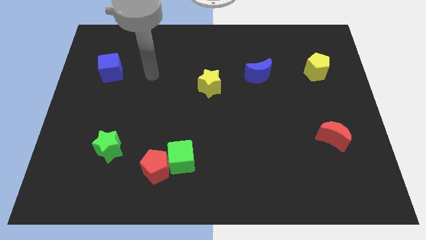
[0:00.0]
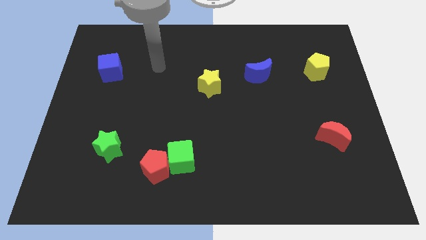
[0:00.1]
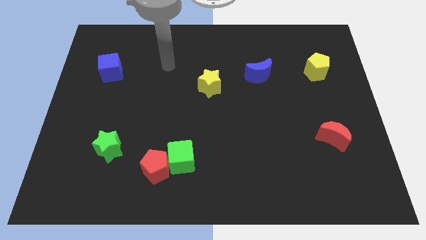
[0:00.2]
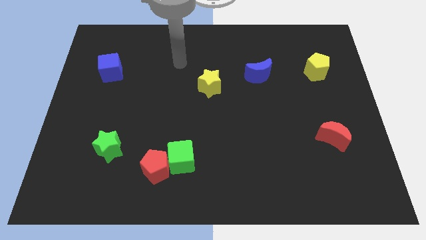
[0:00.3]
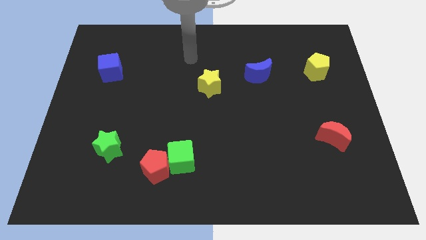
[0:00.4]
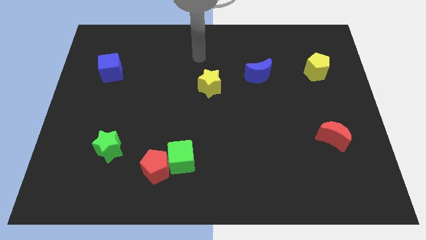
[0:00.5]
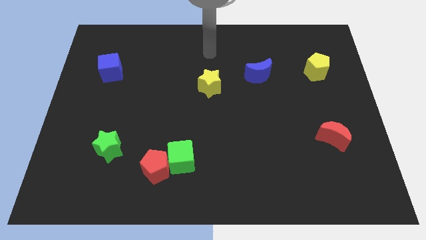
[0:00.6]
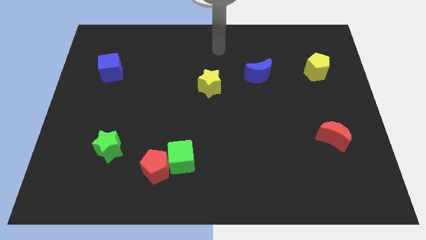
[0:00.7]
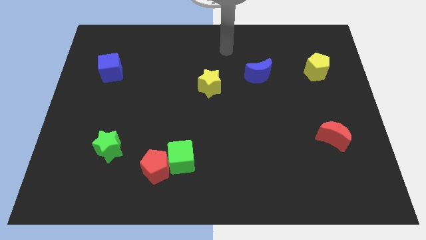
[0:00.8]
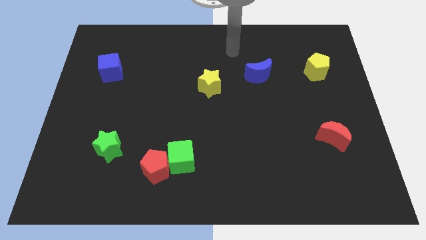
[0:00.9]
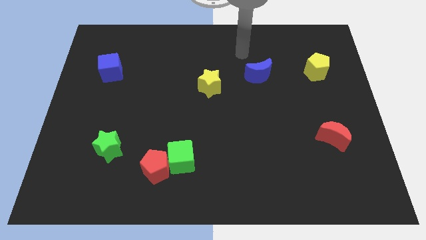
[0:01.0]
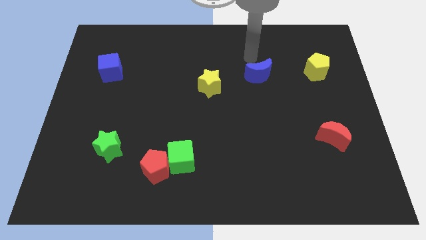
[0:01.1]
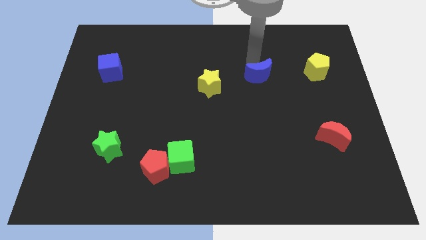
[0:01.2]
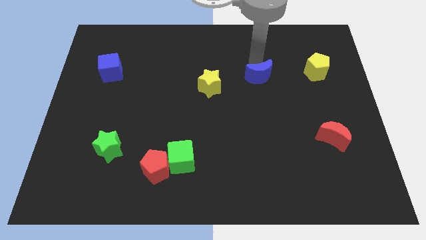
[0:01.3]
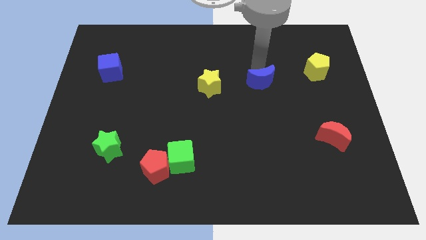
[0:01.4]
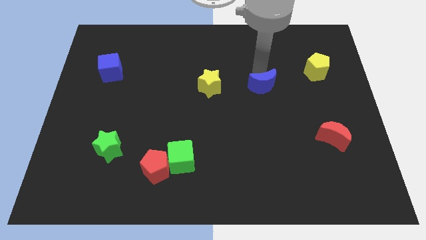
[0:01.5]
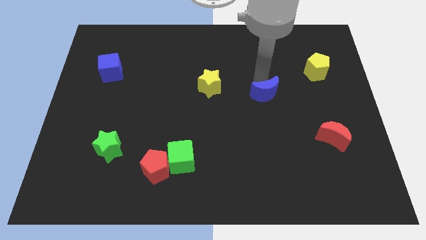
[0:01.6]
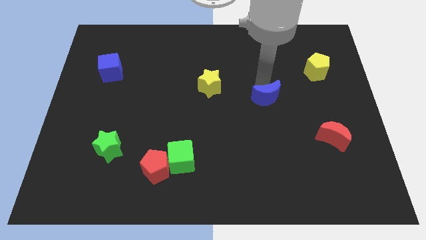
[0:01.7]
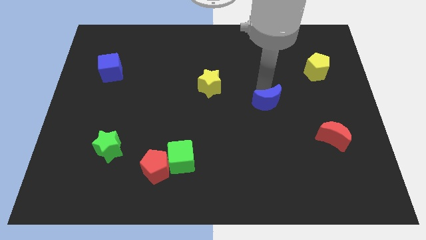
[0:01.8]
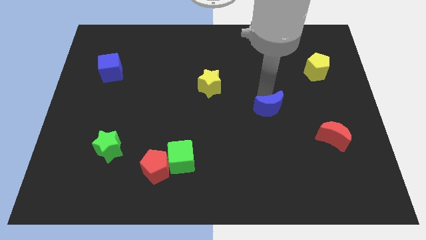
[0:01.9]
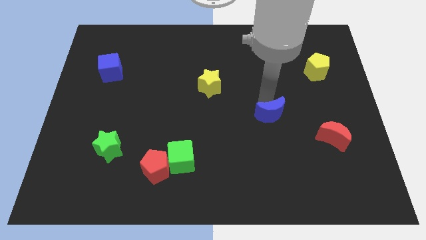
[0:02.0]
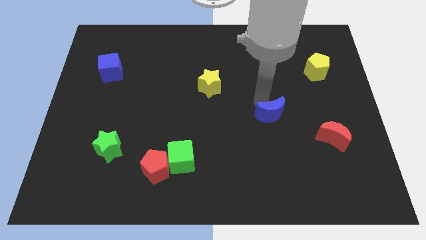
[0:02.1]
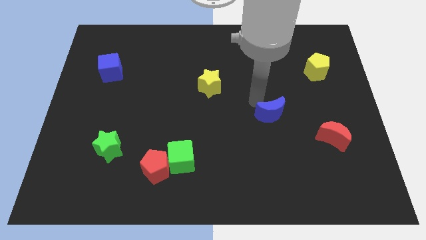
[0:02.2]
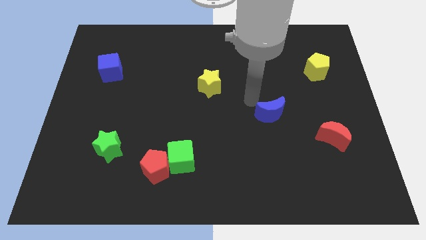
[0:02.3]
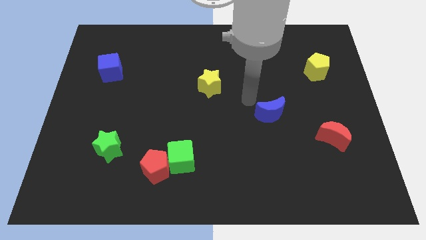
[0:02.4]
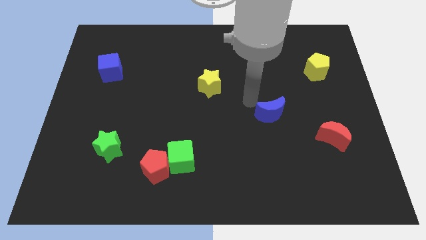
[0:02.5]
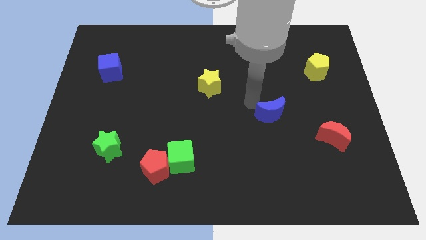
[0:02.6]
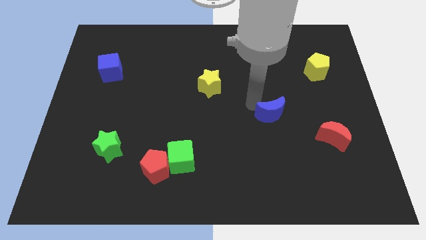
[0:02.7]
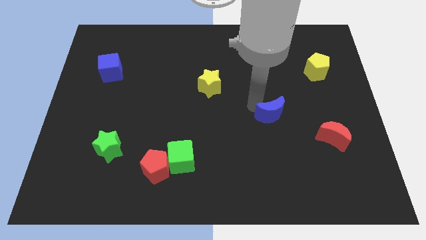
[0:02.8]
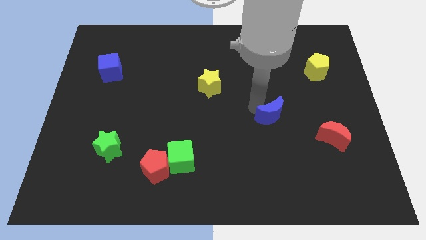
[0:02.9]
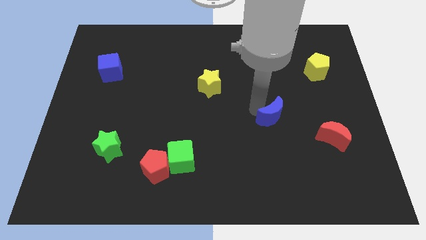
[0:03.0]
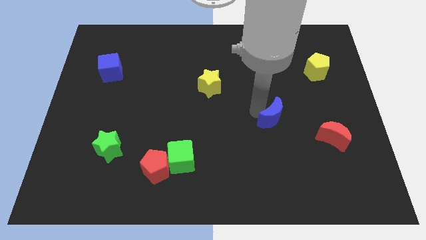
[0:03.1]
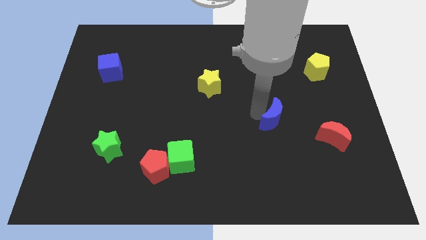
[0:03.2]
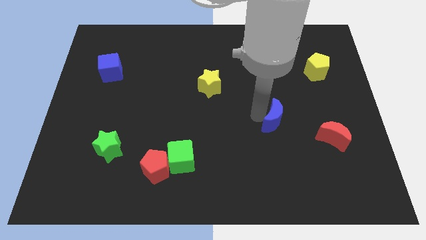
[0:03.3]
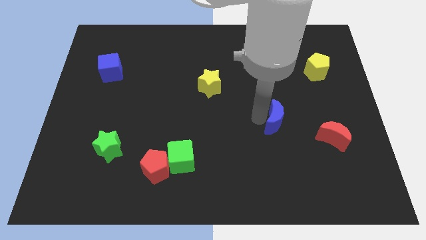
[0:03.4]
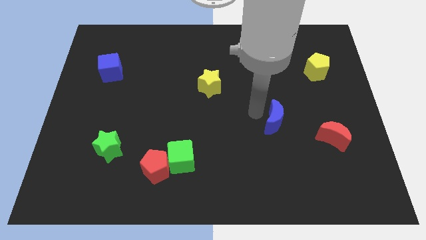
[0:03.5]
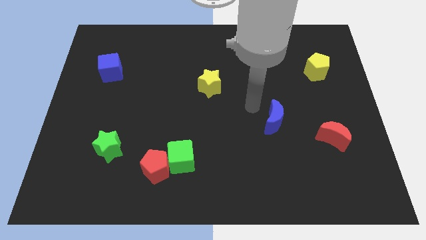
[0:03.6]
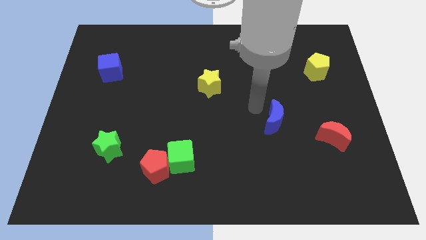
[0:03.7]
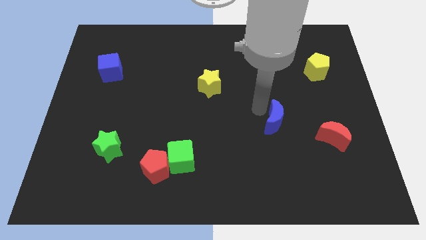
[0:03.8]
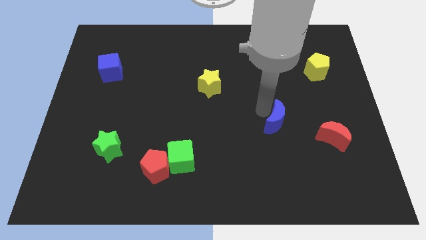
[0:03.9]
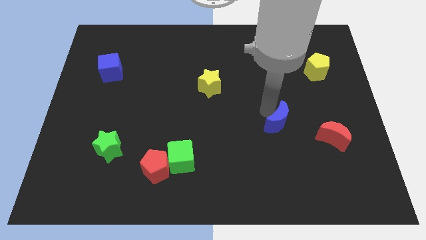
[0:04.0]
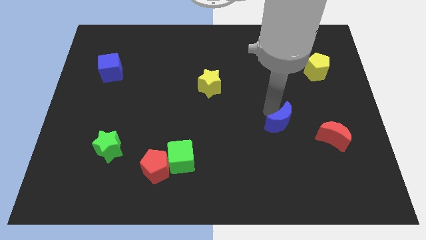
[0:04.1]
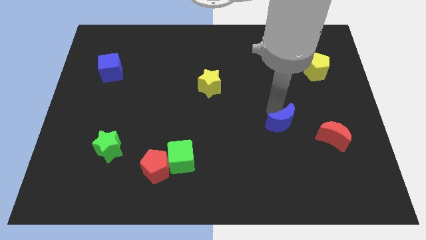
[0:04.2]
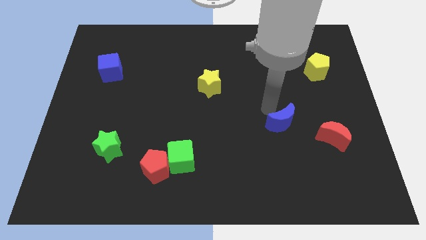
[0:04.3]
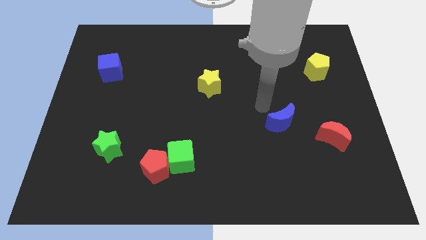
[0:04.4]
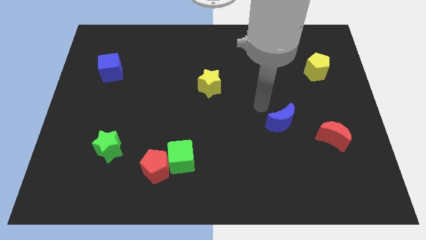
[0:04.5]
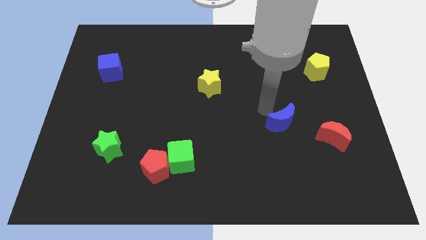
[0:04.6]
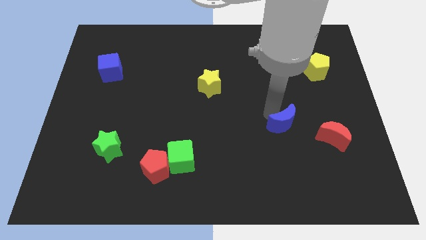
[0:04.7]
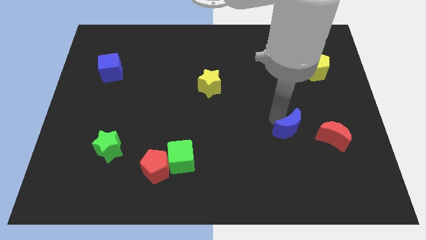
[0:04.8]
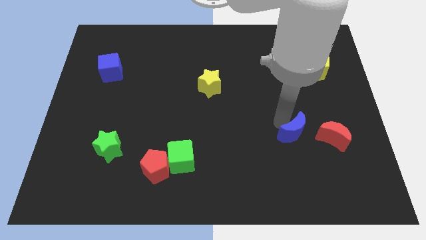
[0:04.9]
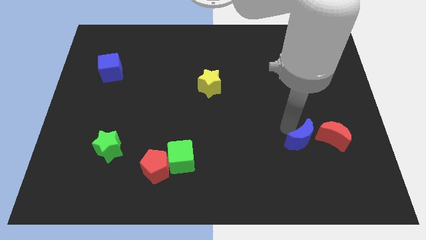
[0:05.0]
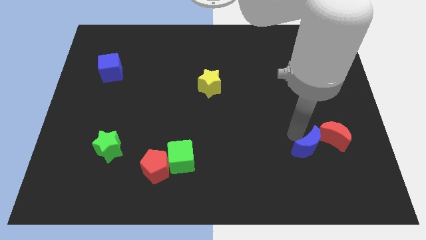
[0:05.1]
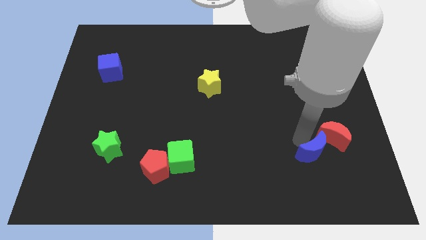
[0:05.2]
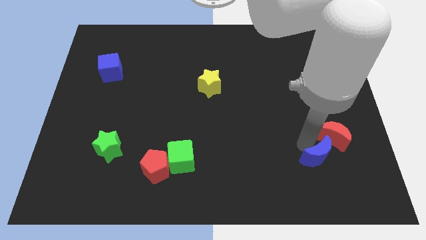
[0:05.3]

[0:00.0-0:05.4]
put the blue moon below the red moon

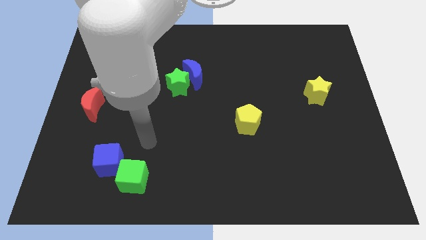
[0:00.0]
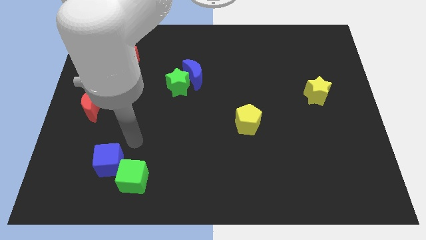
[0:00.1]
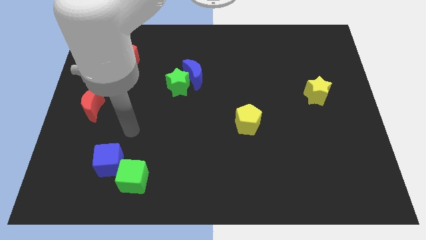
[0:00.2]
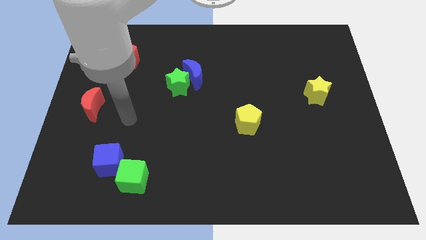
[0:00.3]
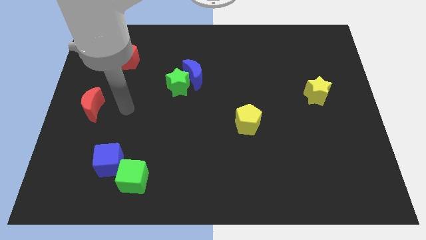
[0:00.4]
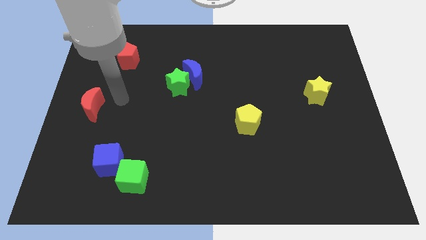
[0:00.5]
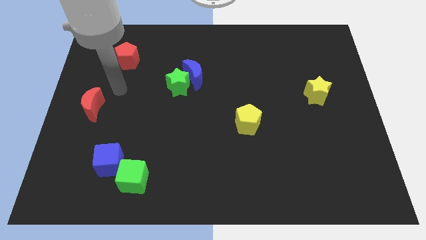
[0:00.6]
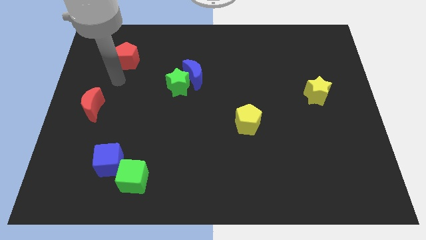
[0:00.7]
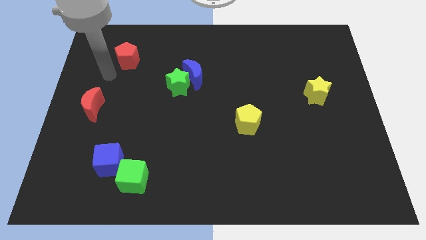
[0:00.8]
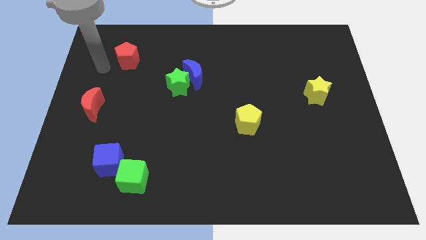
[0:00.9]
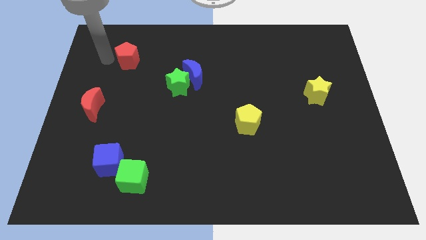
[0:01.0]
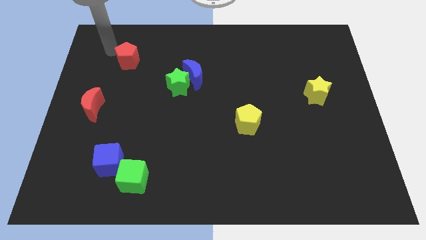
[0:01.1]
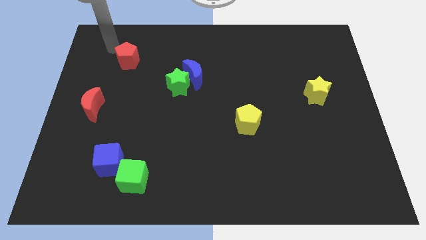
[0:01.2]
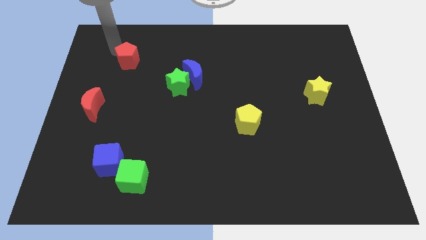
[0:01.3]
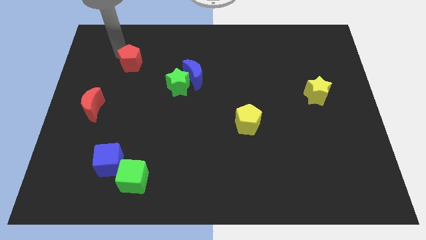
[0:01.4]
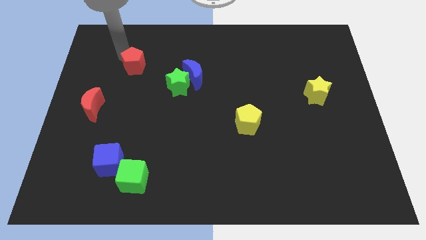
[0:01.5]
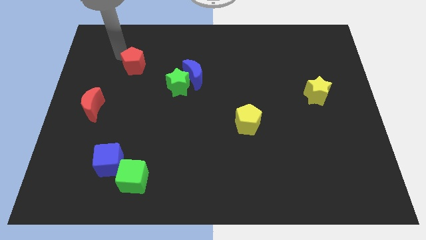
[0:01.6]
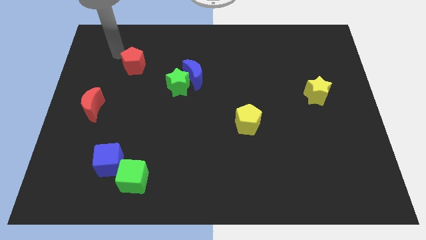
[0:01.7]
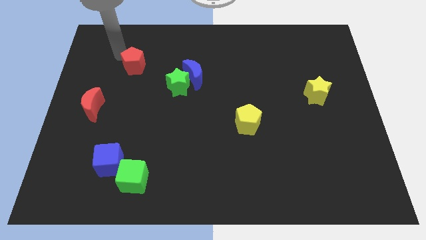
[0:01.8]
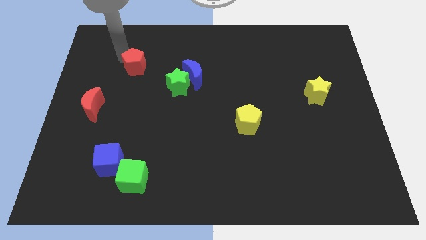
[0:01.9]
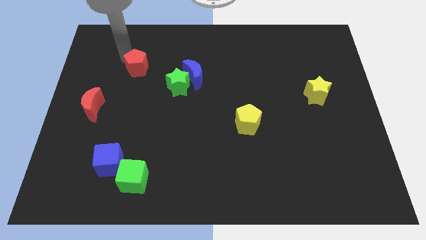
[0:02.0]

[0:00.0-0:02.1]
move the red pentagon left of the blue moon
